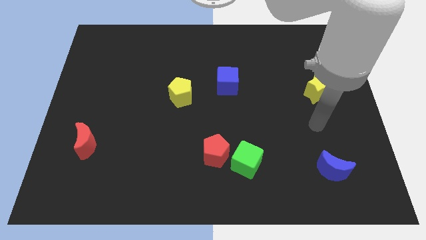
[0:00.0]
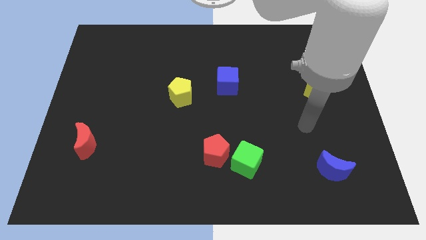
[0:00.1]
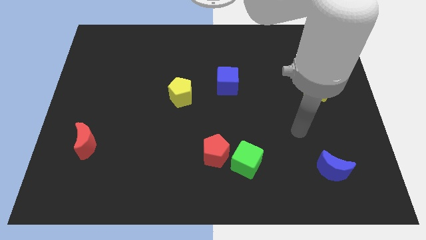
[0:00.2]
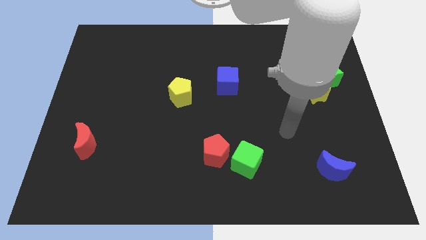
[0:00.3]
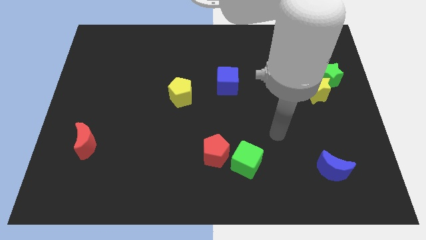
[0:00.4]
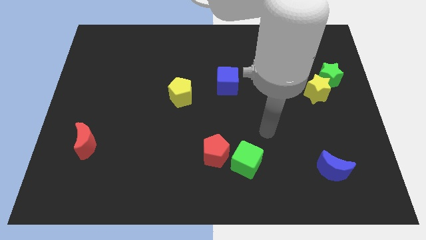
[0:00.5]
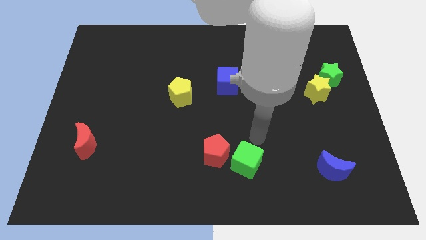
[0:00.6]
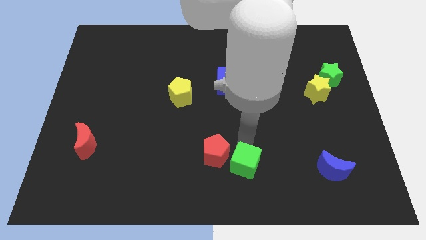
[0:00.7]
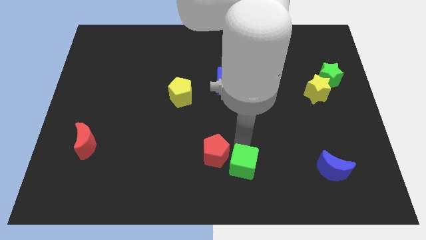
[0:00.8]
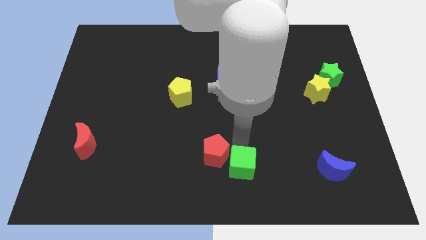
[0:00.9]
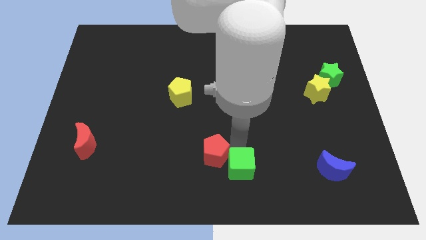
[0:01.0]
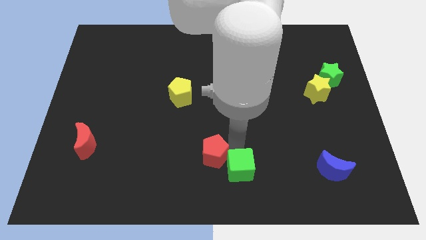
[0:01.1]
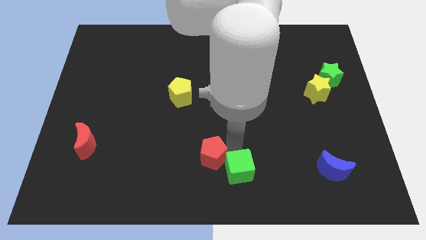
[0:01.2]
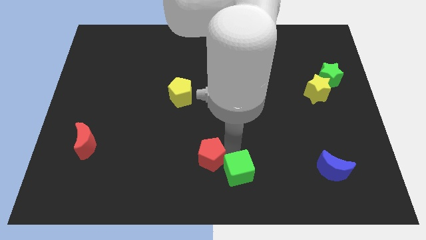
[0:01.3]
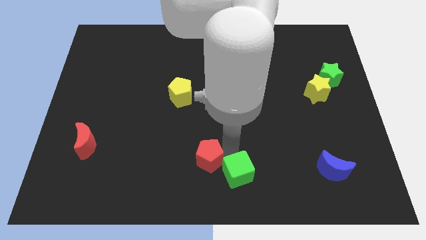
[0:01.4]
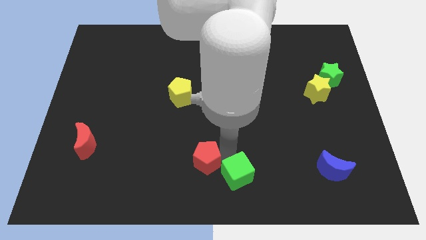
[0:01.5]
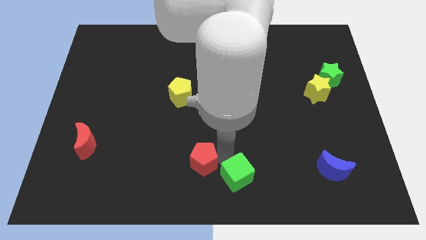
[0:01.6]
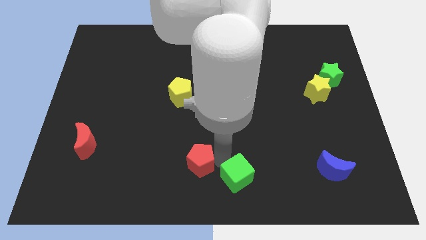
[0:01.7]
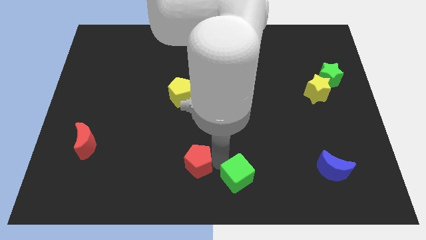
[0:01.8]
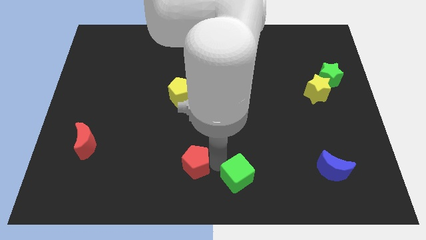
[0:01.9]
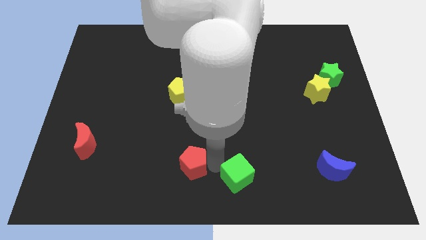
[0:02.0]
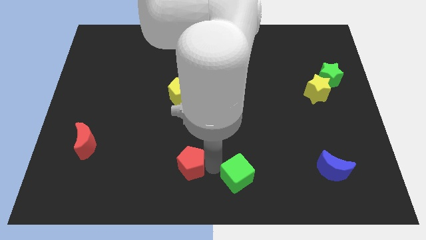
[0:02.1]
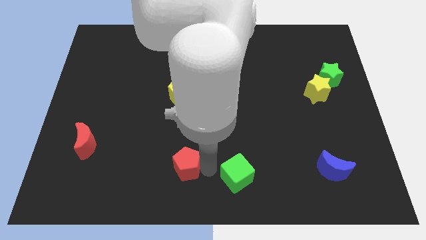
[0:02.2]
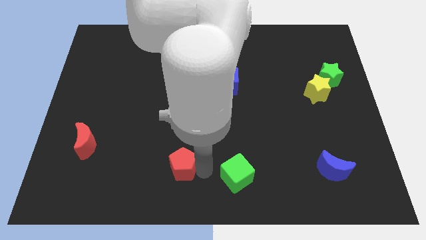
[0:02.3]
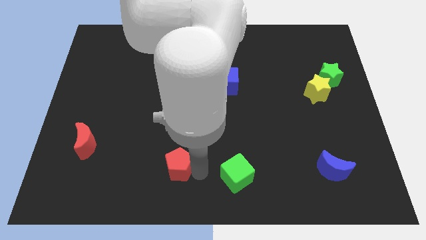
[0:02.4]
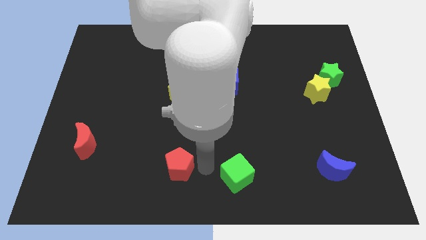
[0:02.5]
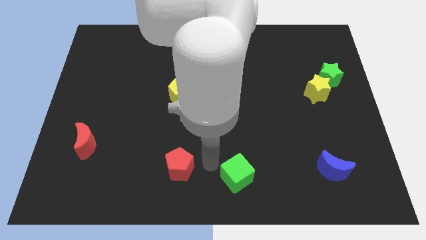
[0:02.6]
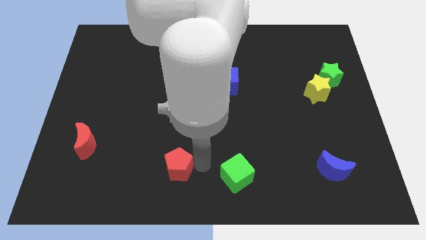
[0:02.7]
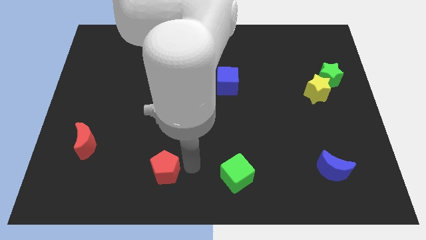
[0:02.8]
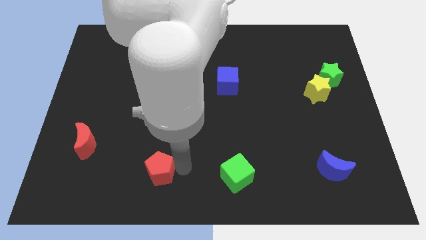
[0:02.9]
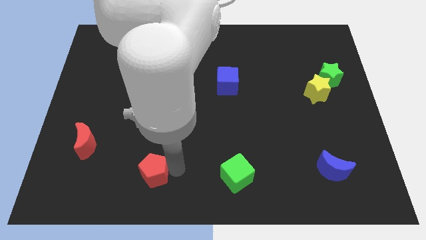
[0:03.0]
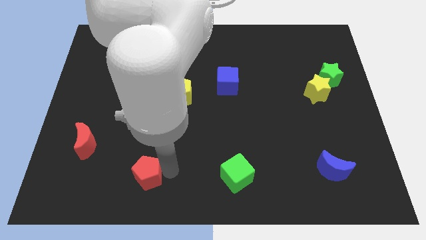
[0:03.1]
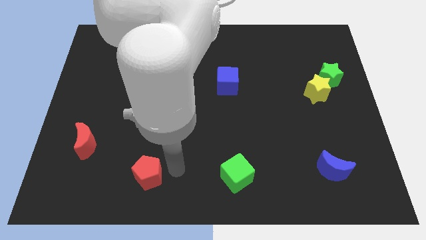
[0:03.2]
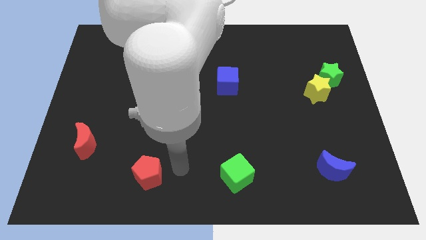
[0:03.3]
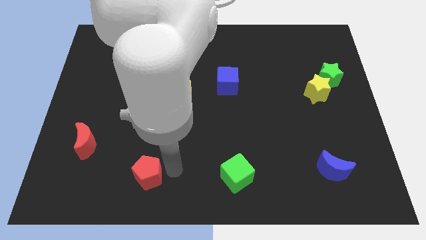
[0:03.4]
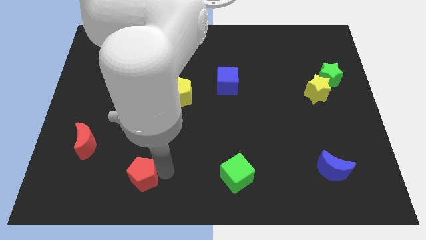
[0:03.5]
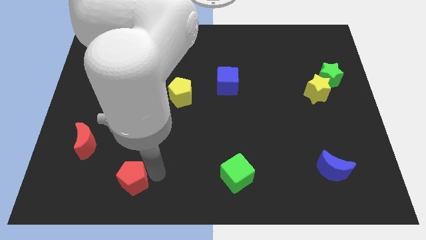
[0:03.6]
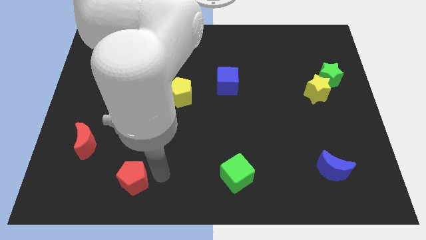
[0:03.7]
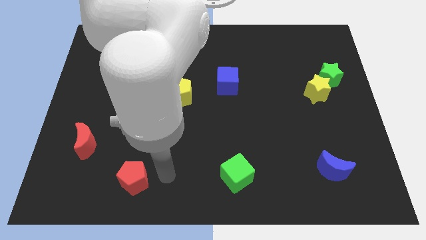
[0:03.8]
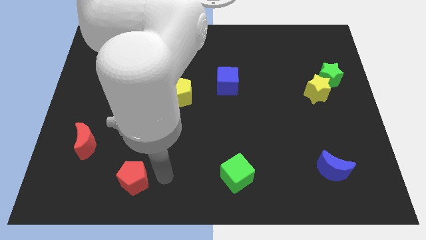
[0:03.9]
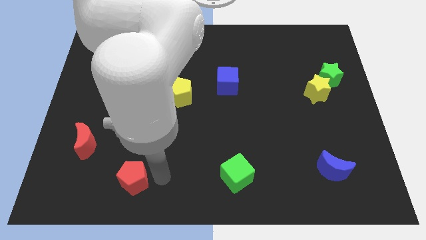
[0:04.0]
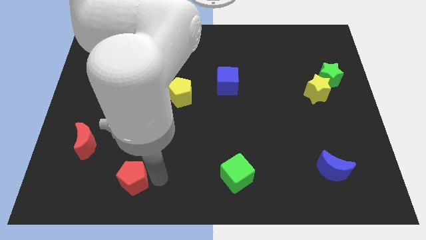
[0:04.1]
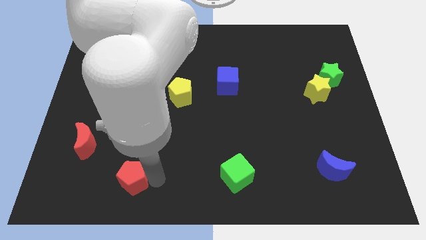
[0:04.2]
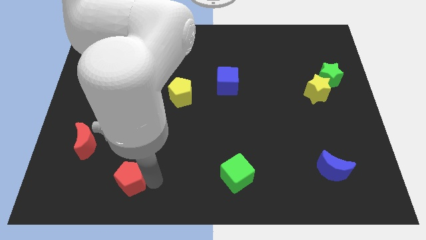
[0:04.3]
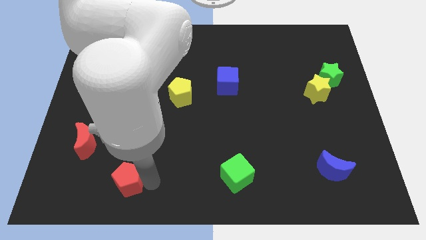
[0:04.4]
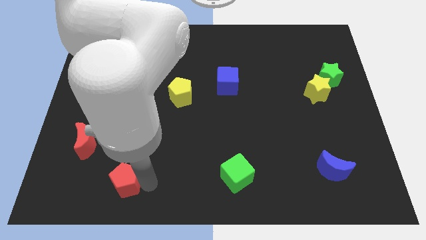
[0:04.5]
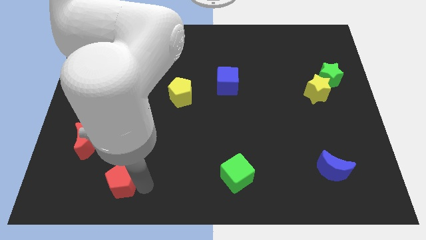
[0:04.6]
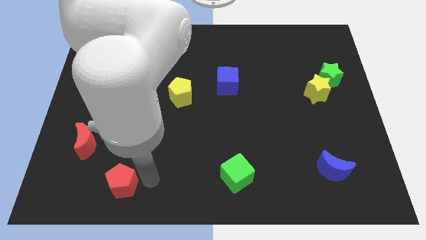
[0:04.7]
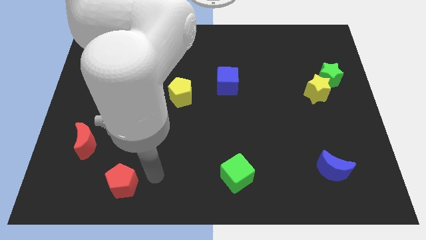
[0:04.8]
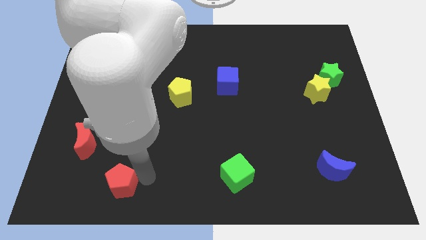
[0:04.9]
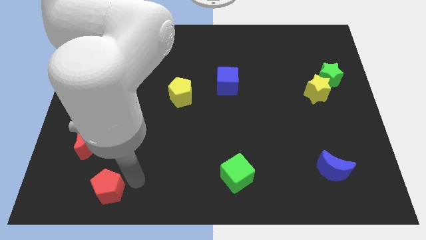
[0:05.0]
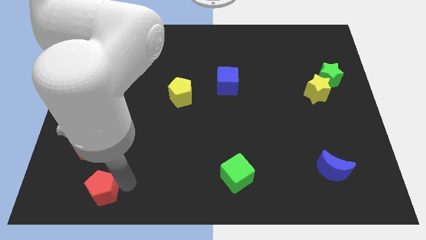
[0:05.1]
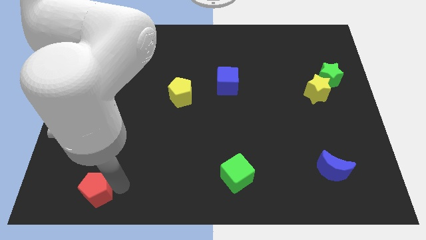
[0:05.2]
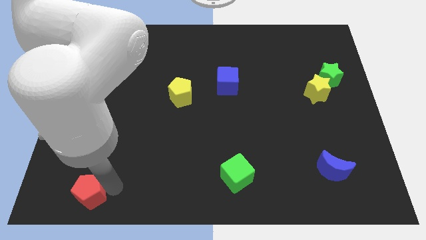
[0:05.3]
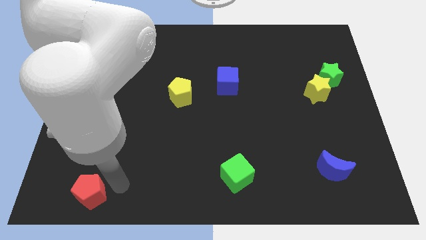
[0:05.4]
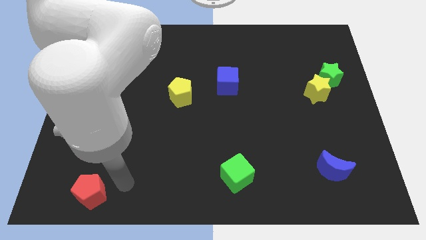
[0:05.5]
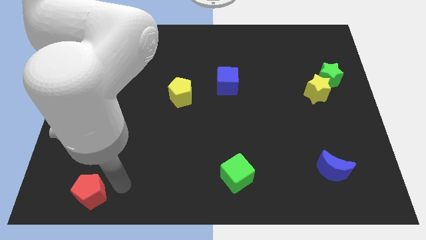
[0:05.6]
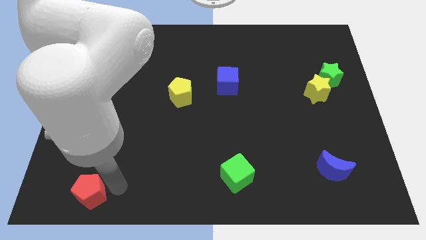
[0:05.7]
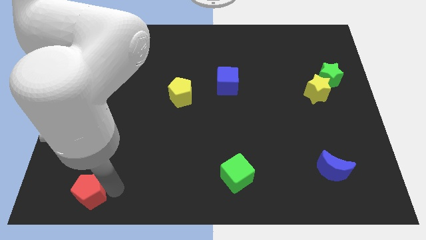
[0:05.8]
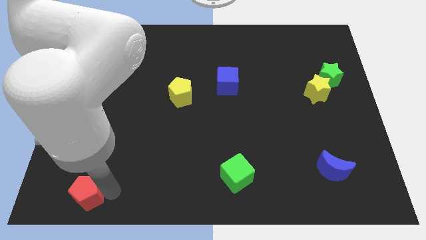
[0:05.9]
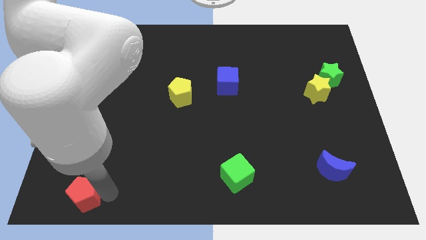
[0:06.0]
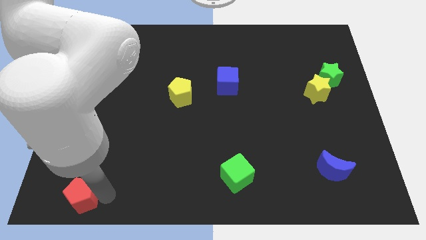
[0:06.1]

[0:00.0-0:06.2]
move the red pentagon to the bottom left

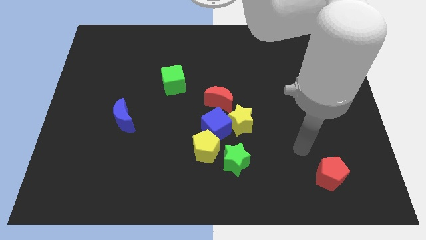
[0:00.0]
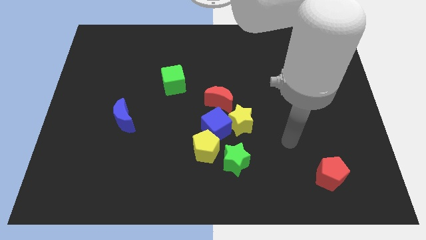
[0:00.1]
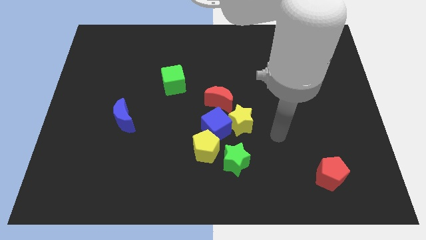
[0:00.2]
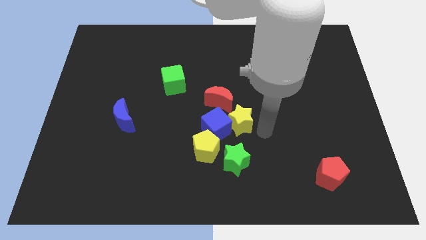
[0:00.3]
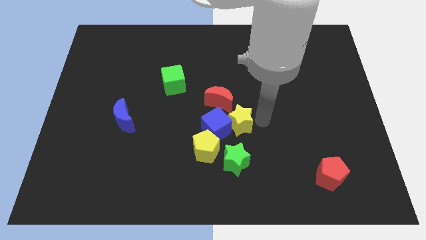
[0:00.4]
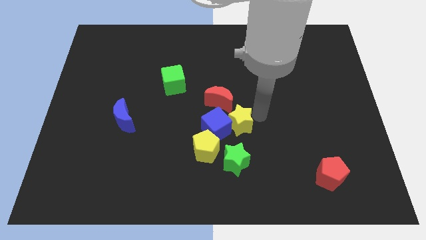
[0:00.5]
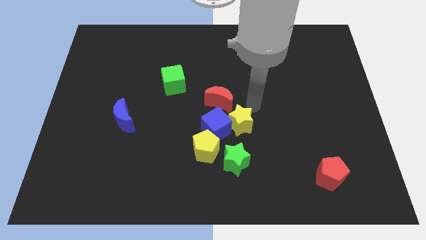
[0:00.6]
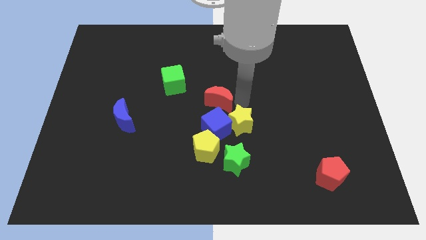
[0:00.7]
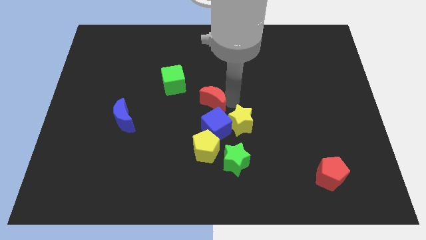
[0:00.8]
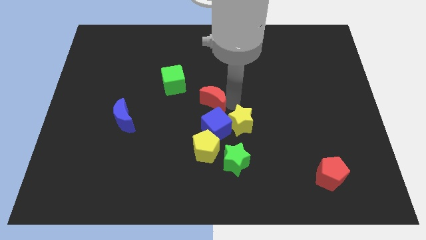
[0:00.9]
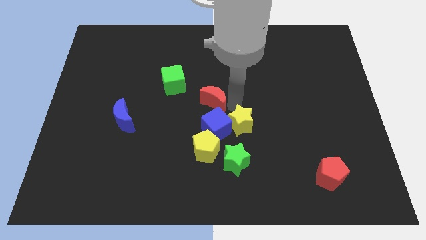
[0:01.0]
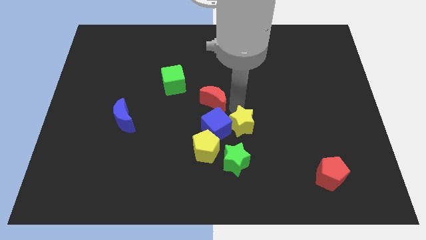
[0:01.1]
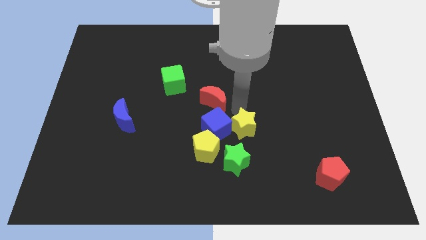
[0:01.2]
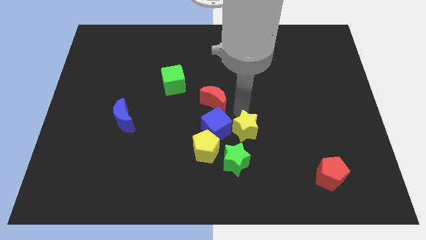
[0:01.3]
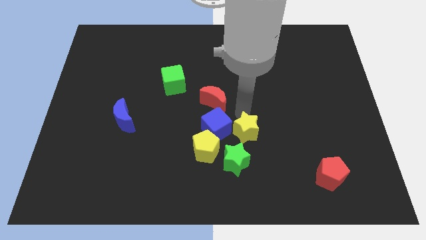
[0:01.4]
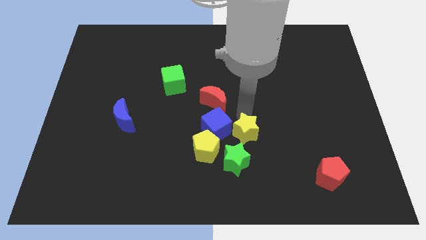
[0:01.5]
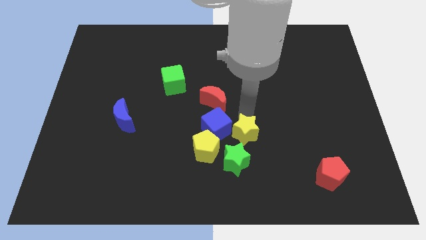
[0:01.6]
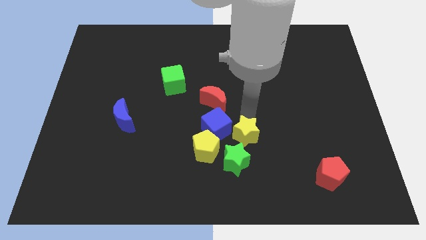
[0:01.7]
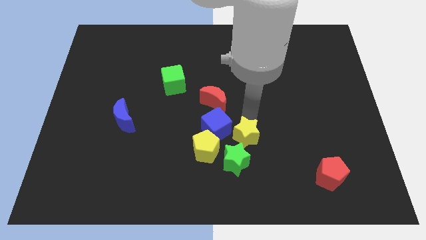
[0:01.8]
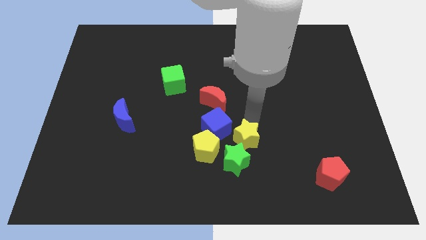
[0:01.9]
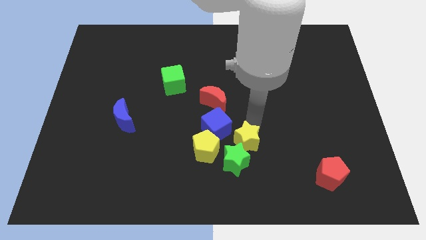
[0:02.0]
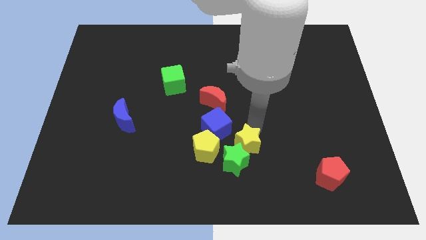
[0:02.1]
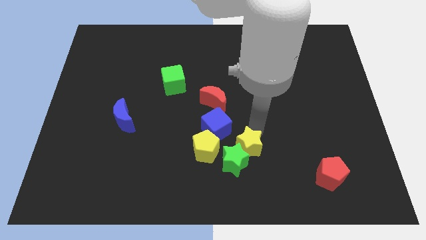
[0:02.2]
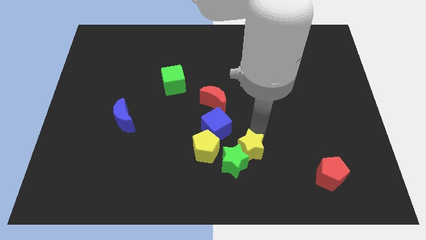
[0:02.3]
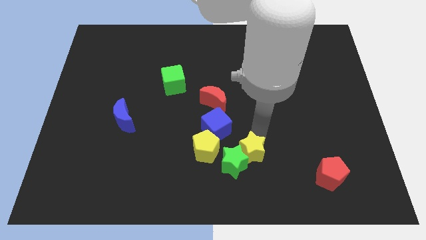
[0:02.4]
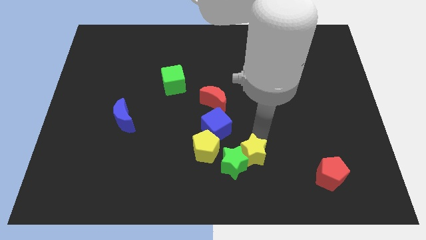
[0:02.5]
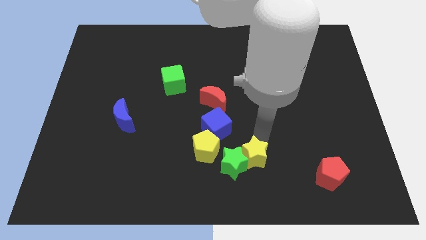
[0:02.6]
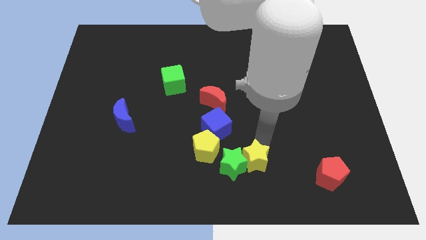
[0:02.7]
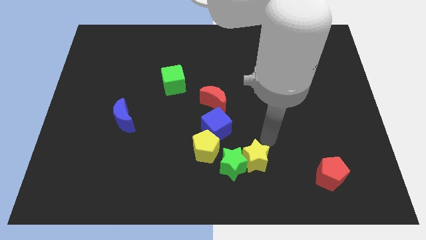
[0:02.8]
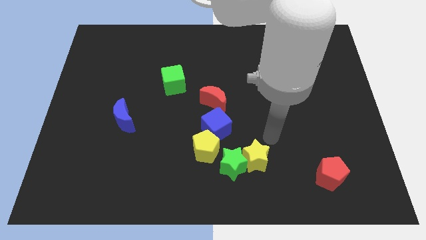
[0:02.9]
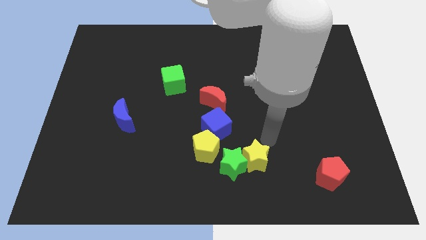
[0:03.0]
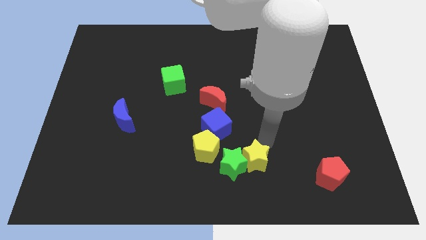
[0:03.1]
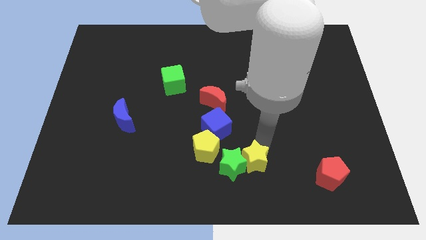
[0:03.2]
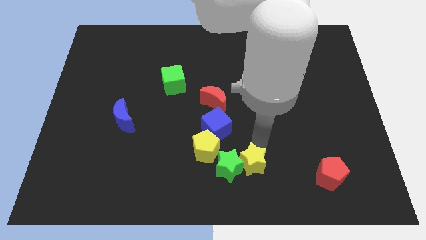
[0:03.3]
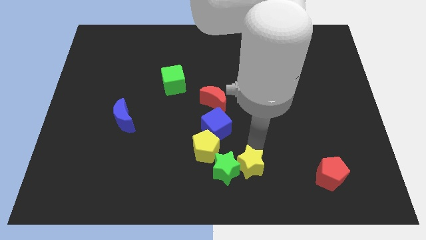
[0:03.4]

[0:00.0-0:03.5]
slide the yellow star to the bottom
